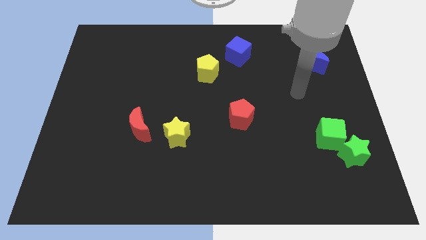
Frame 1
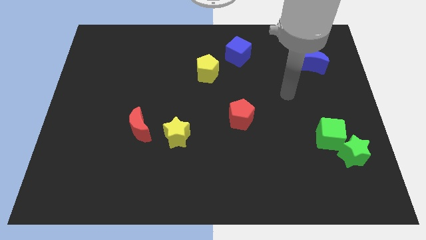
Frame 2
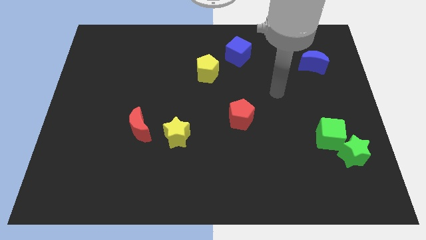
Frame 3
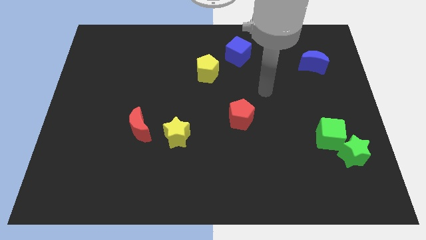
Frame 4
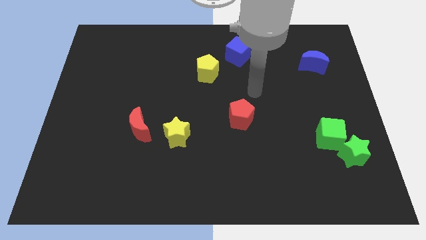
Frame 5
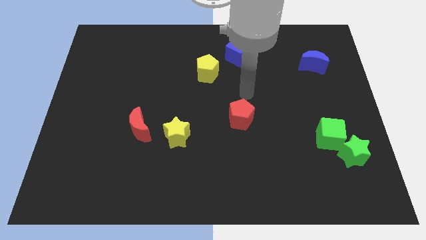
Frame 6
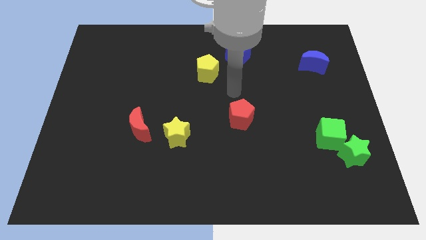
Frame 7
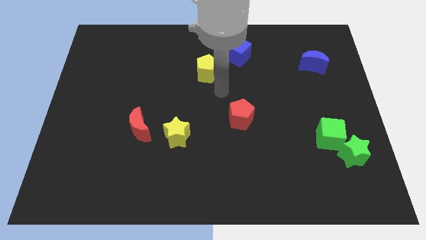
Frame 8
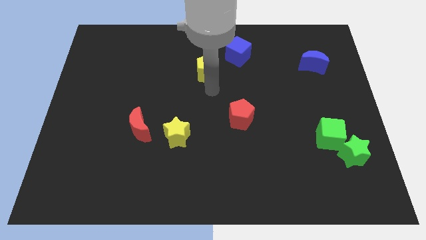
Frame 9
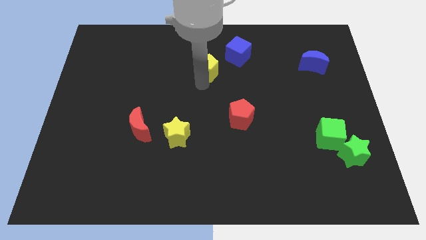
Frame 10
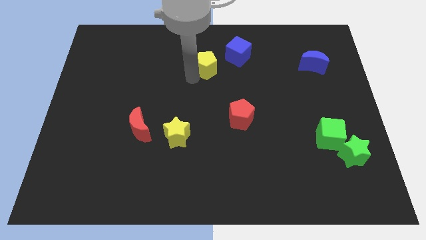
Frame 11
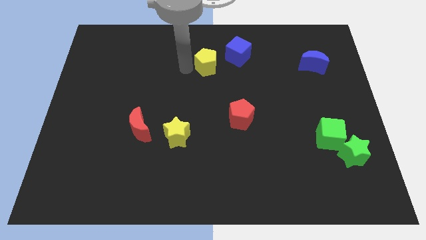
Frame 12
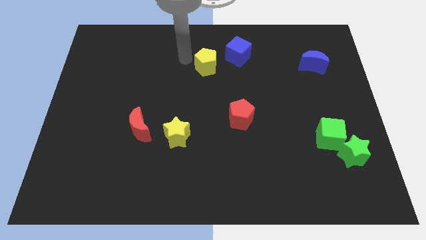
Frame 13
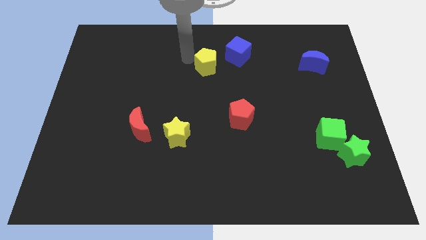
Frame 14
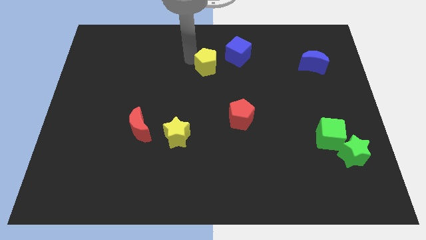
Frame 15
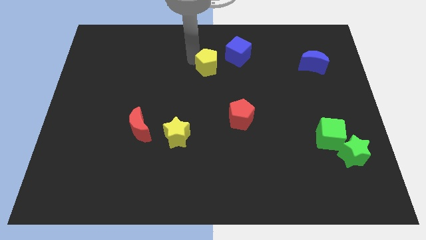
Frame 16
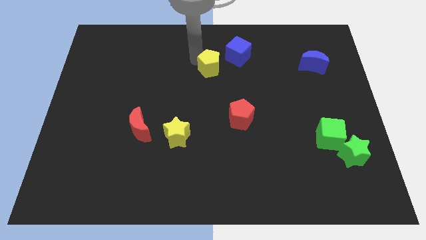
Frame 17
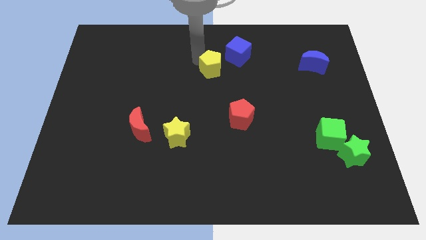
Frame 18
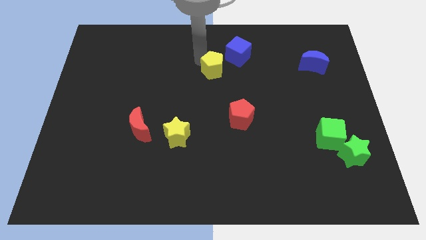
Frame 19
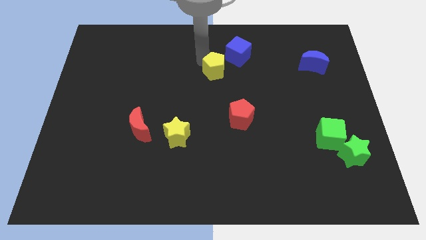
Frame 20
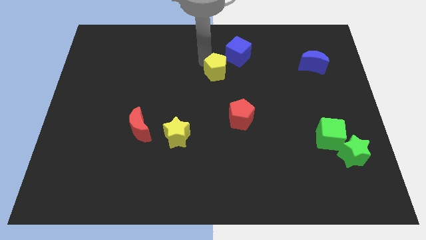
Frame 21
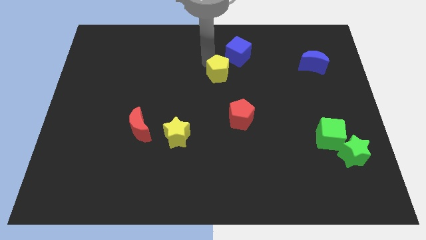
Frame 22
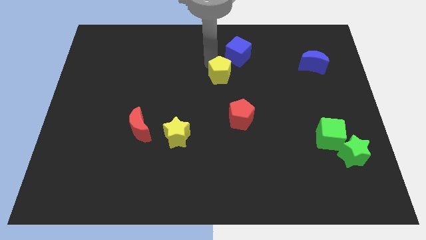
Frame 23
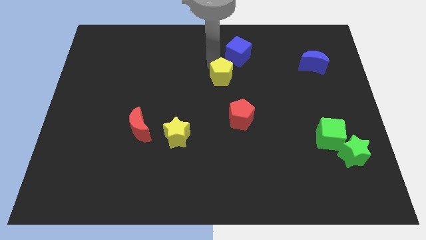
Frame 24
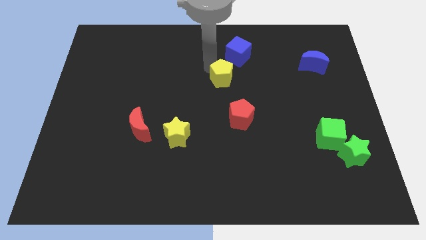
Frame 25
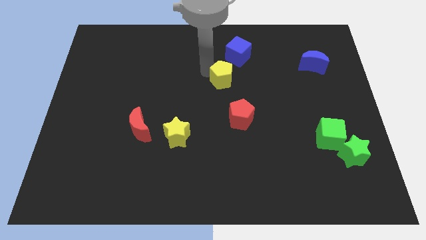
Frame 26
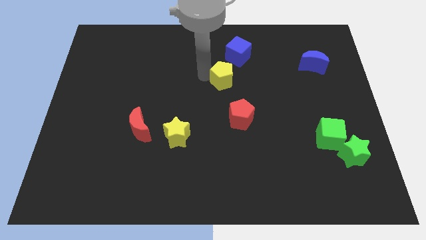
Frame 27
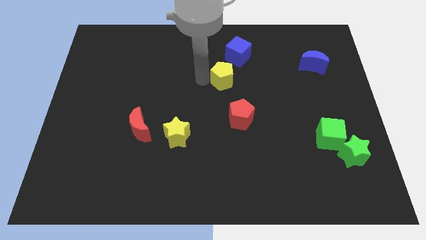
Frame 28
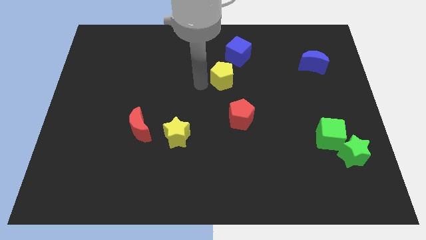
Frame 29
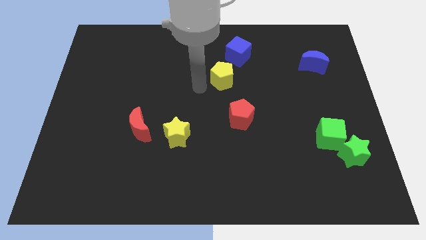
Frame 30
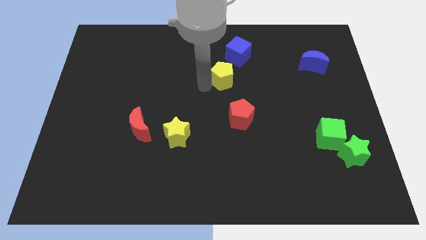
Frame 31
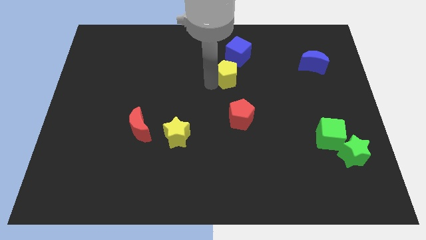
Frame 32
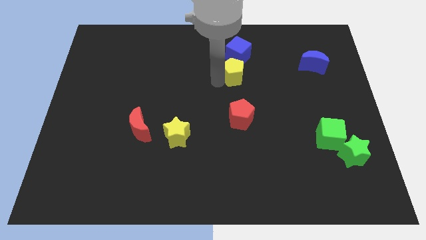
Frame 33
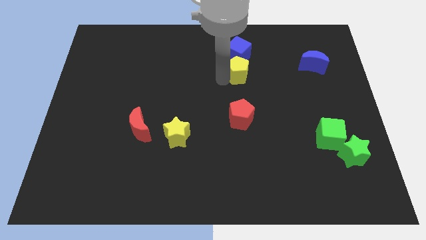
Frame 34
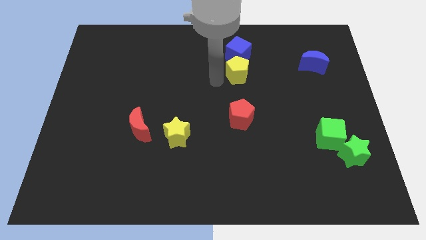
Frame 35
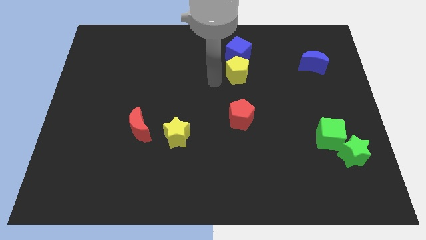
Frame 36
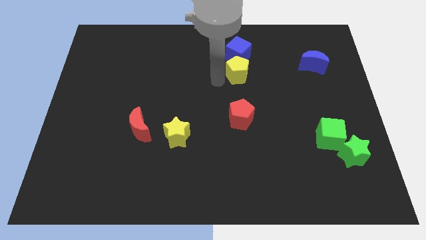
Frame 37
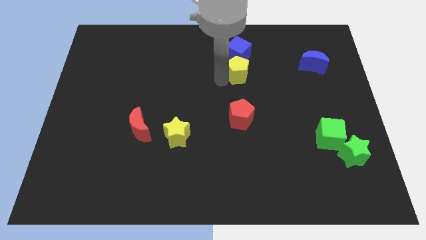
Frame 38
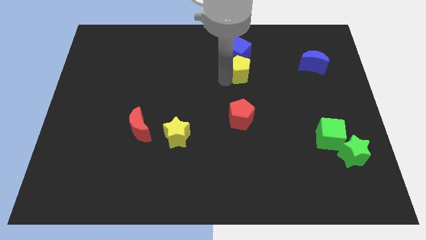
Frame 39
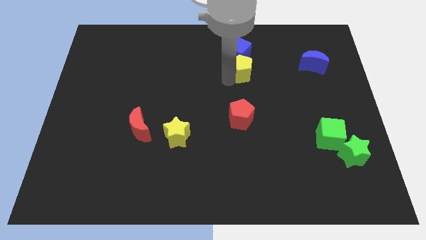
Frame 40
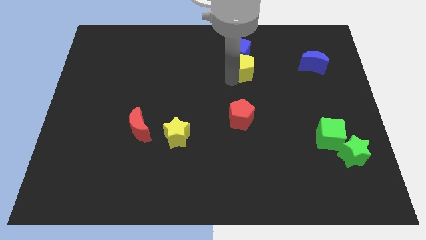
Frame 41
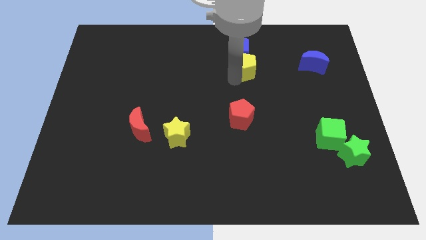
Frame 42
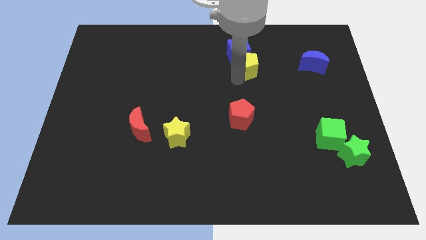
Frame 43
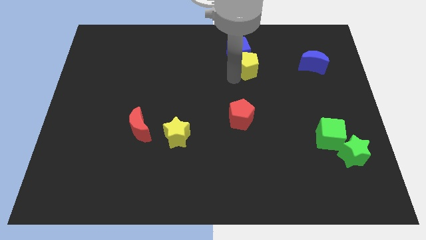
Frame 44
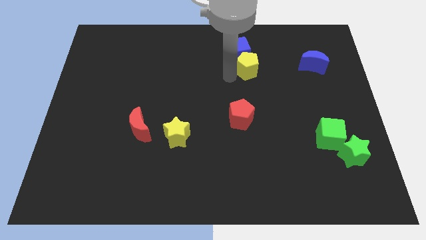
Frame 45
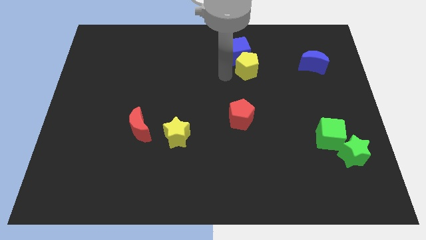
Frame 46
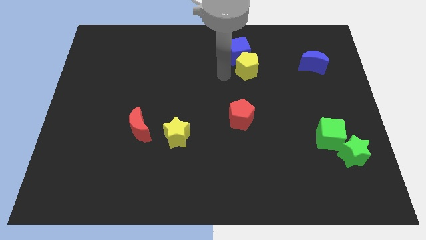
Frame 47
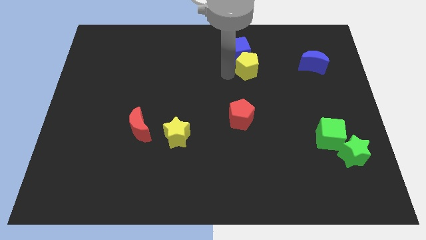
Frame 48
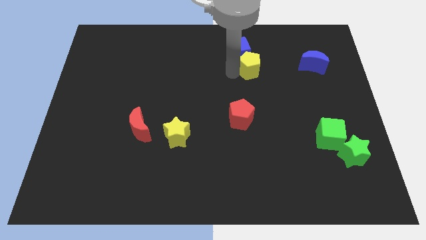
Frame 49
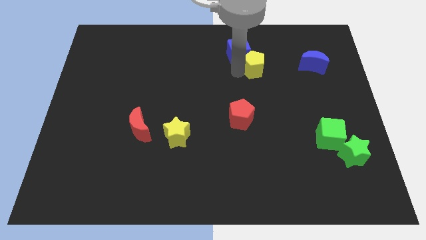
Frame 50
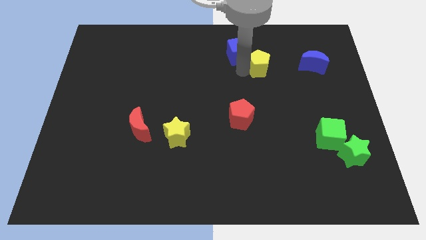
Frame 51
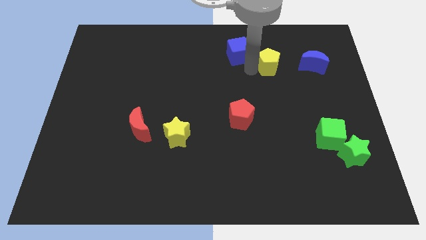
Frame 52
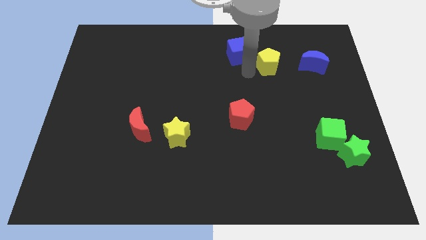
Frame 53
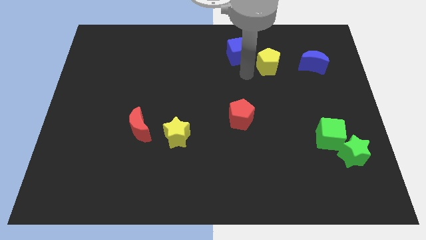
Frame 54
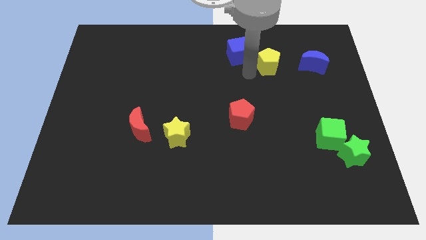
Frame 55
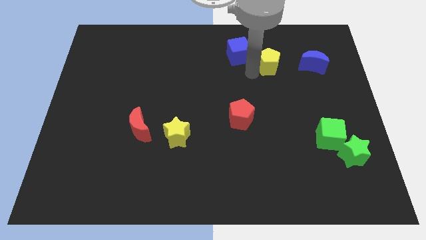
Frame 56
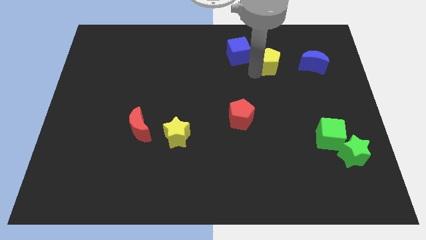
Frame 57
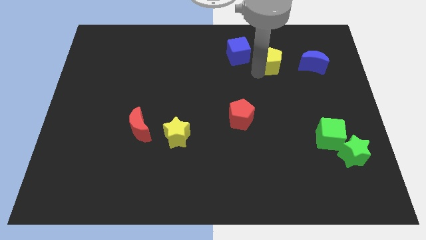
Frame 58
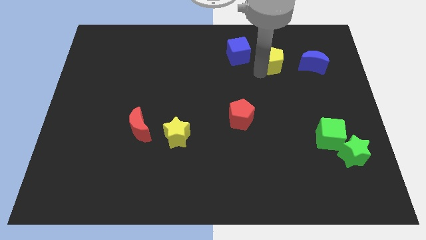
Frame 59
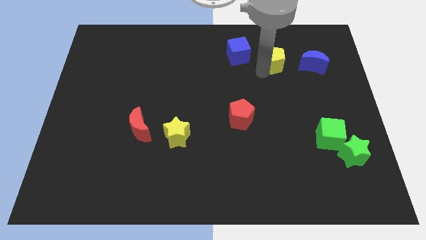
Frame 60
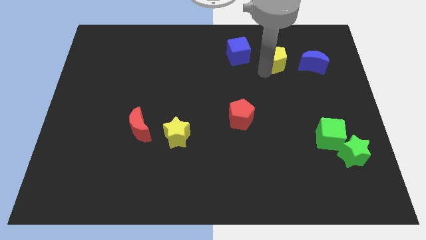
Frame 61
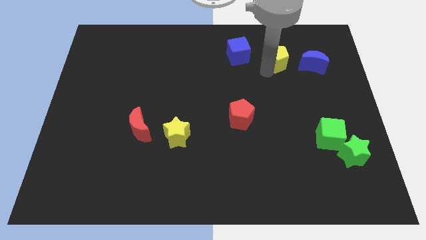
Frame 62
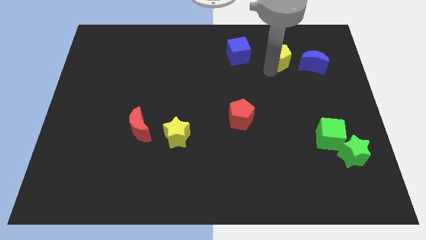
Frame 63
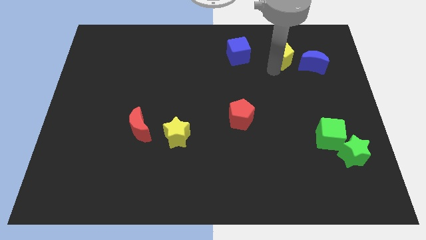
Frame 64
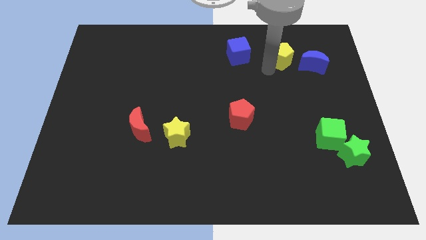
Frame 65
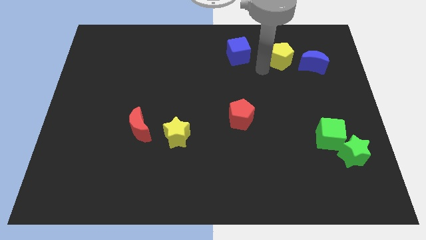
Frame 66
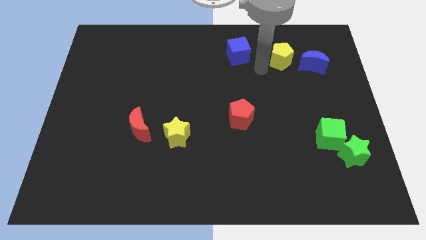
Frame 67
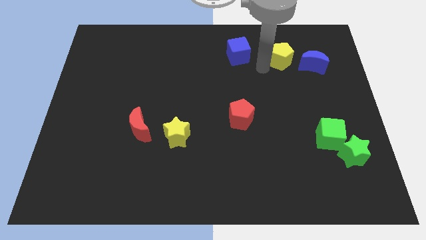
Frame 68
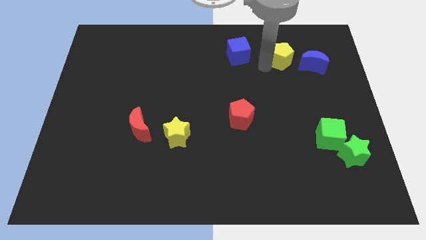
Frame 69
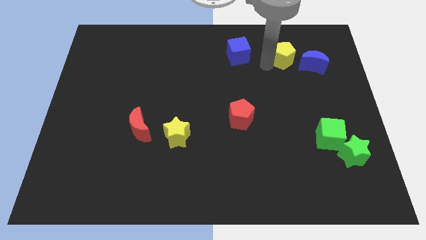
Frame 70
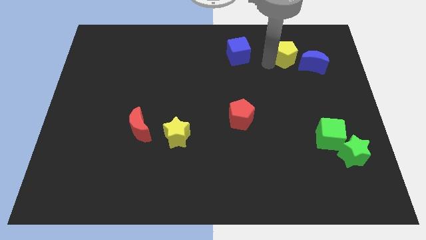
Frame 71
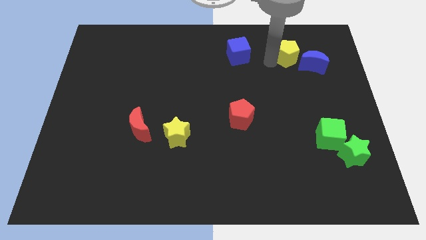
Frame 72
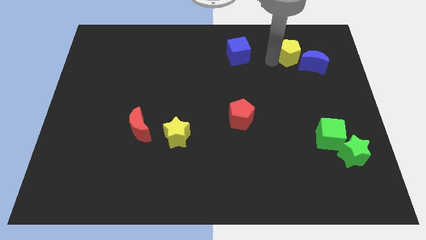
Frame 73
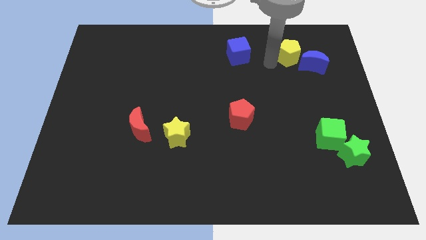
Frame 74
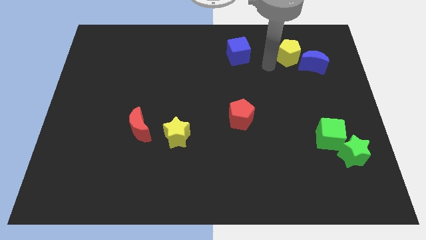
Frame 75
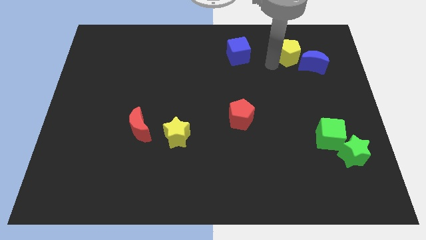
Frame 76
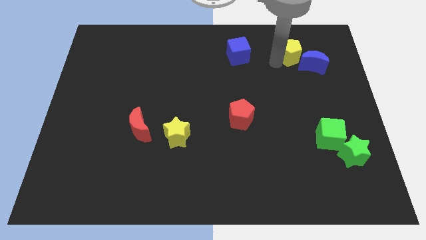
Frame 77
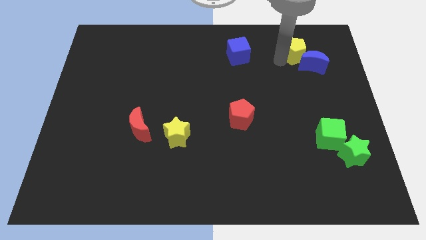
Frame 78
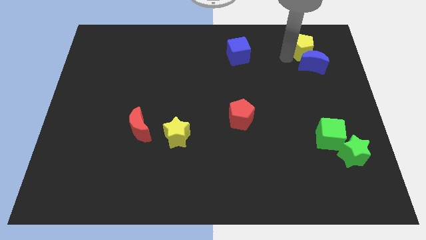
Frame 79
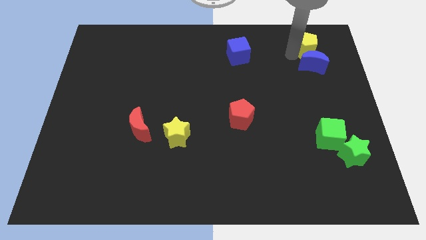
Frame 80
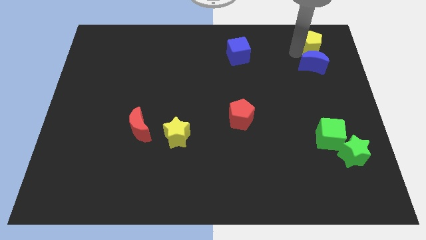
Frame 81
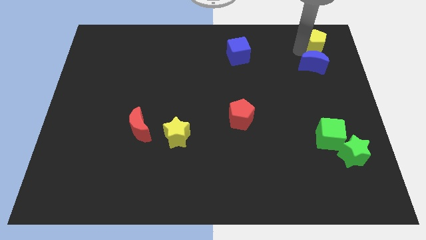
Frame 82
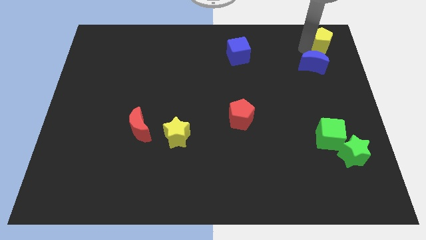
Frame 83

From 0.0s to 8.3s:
put the yellow pentagon to the top right corner
